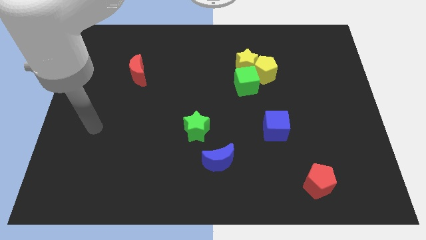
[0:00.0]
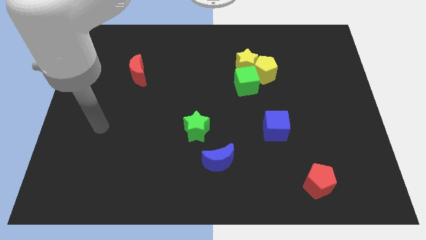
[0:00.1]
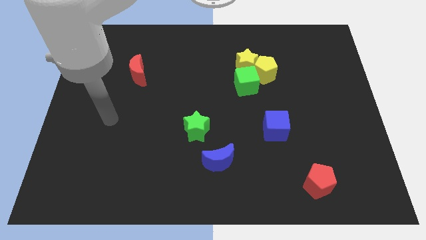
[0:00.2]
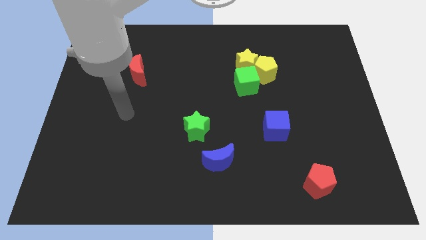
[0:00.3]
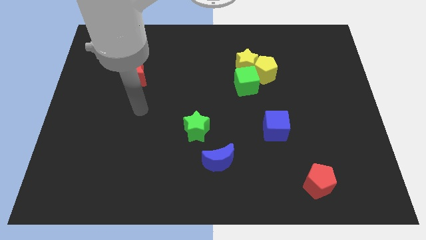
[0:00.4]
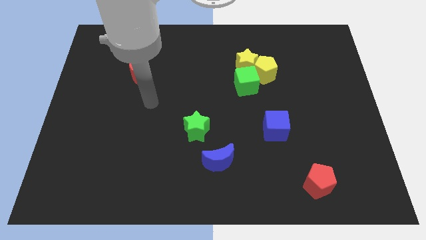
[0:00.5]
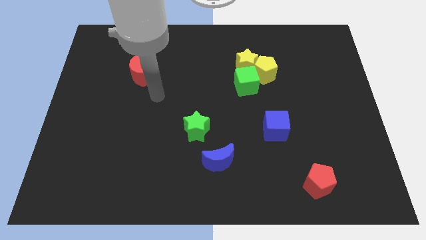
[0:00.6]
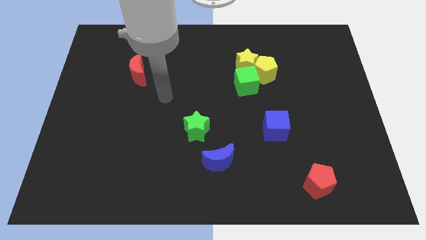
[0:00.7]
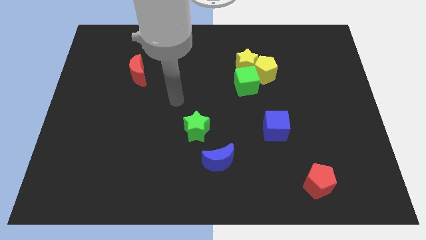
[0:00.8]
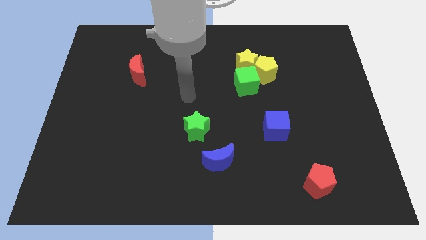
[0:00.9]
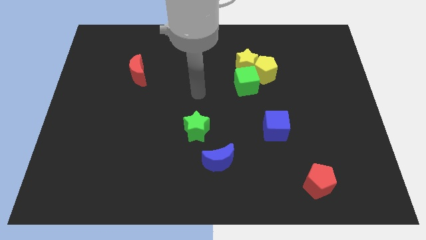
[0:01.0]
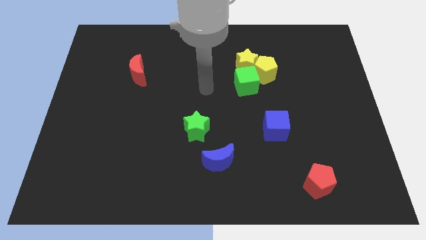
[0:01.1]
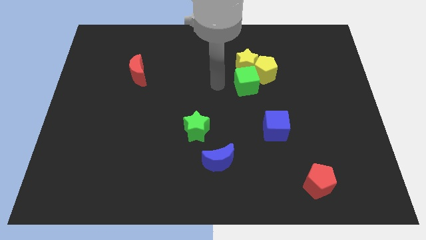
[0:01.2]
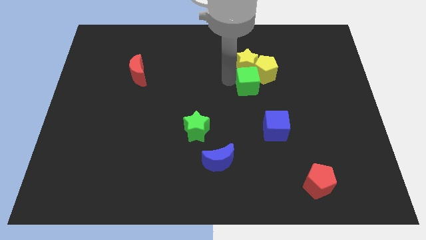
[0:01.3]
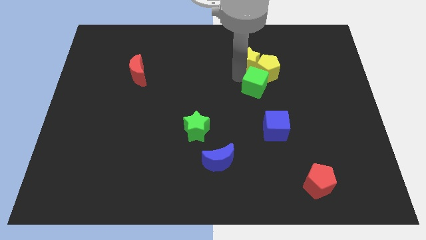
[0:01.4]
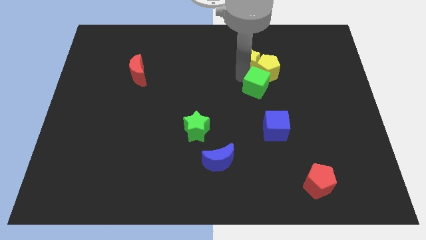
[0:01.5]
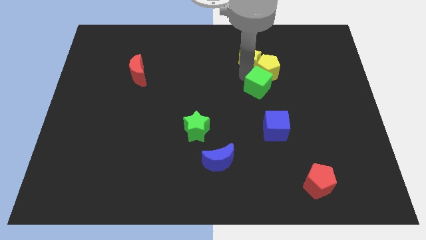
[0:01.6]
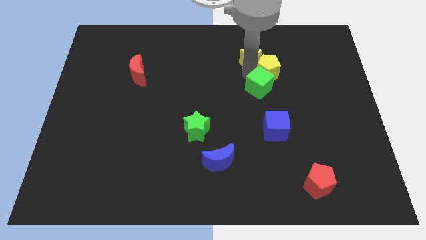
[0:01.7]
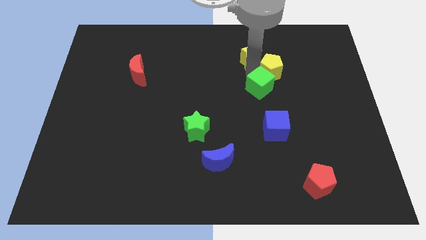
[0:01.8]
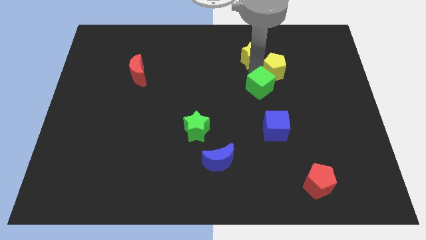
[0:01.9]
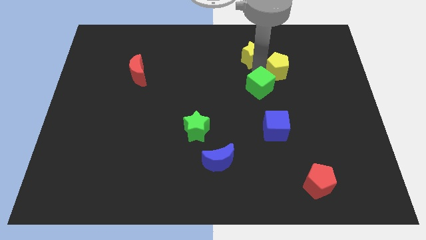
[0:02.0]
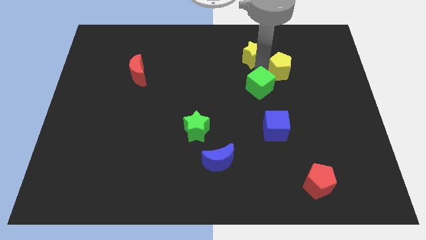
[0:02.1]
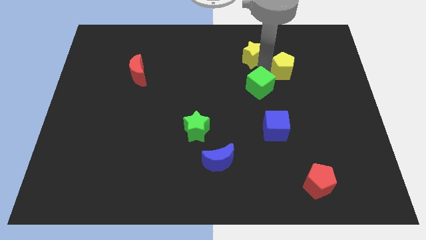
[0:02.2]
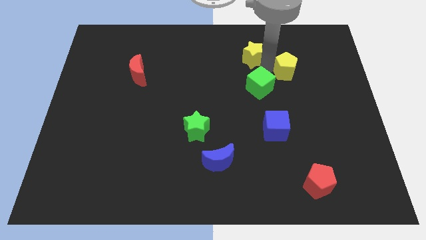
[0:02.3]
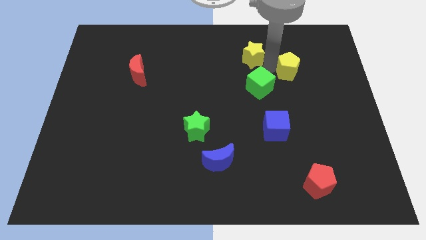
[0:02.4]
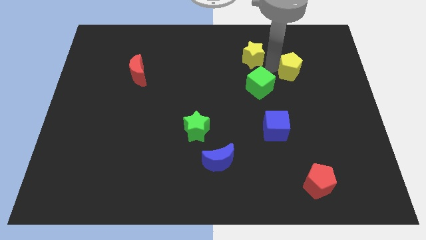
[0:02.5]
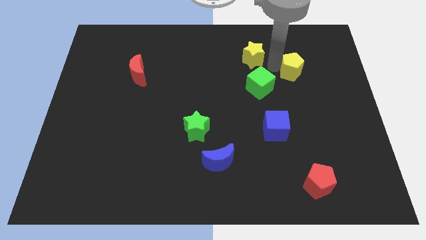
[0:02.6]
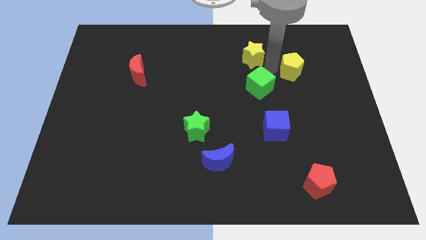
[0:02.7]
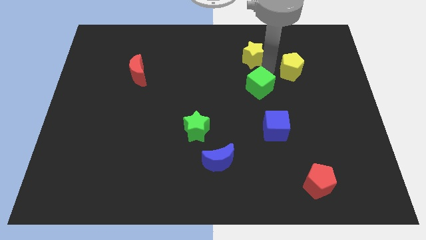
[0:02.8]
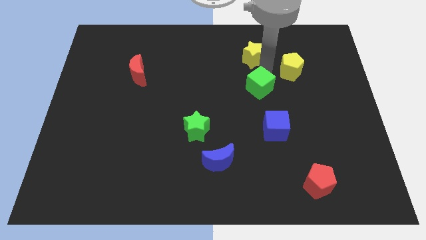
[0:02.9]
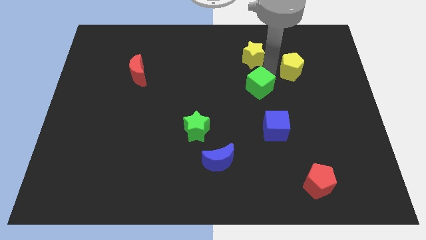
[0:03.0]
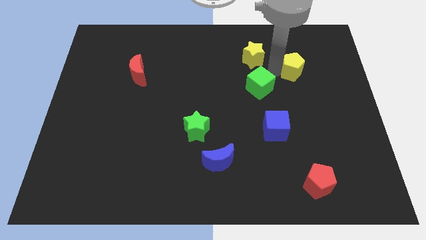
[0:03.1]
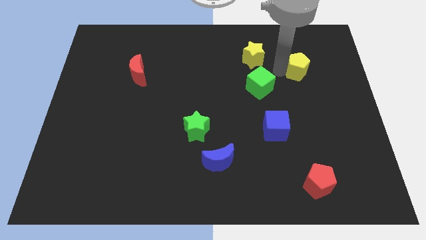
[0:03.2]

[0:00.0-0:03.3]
move the yellow pentagon away from the yellow star and green cube

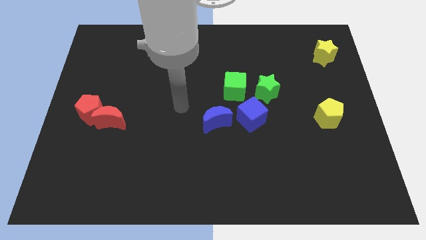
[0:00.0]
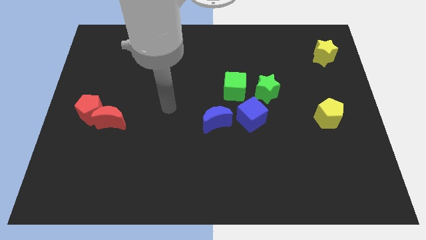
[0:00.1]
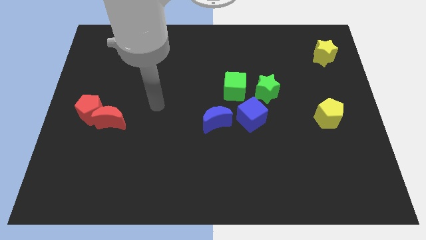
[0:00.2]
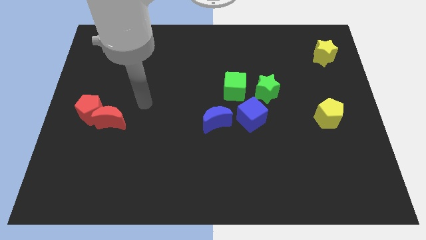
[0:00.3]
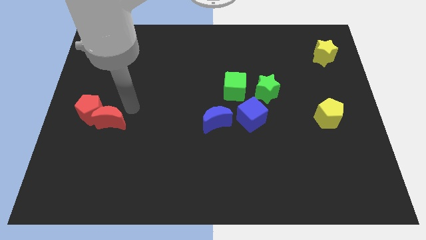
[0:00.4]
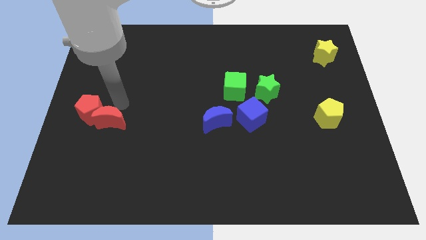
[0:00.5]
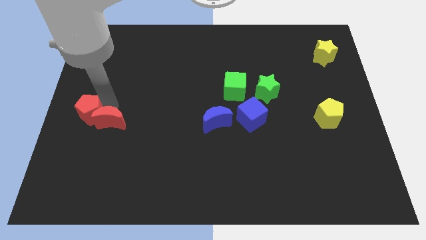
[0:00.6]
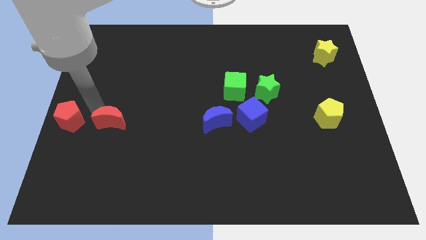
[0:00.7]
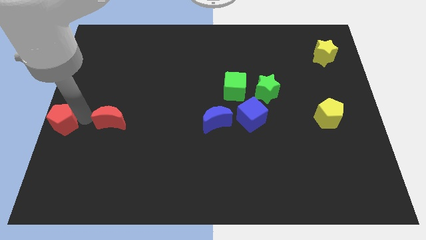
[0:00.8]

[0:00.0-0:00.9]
pull the red moon apart from the red pentagon

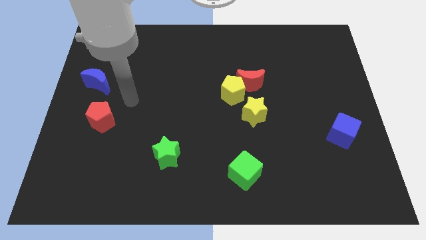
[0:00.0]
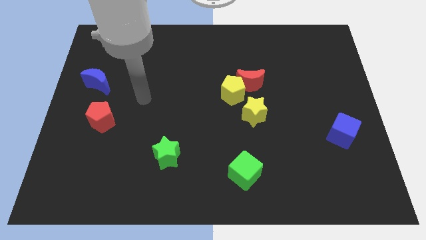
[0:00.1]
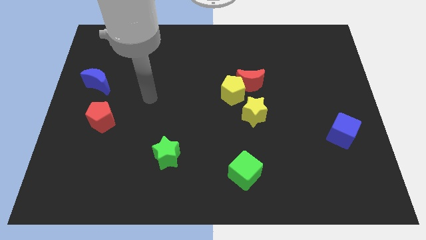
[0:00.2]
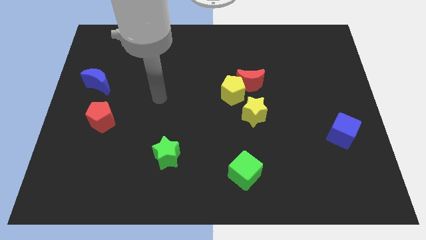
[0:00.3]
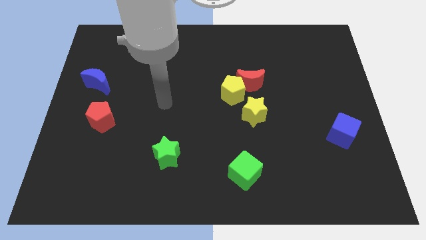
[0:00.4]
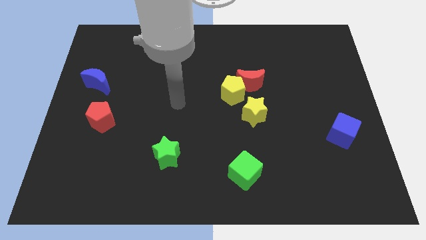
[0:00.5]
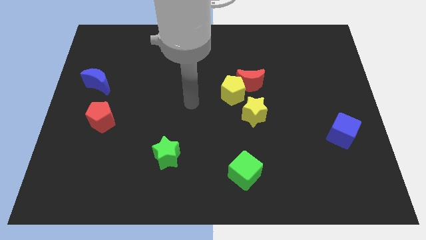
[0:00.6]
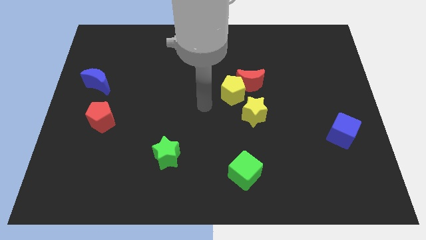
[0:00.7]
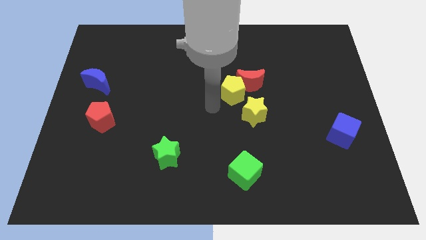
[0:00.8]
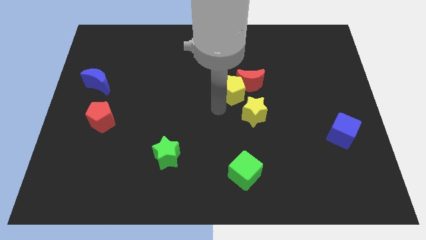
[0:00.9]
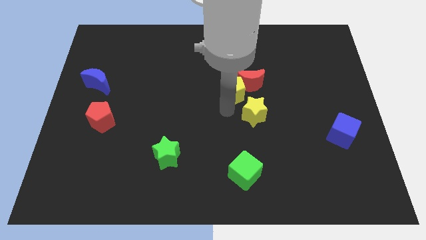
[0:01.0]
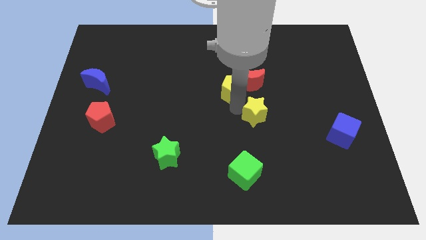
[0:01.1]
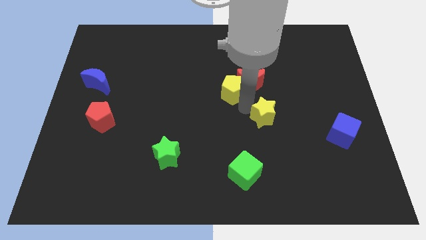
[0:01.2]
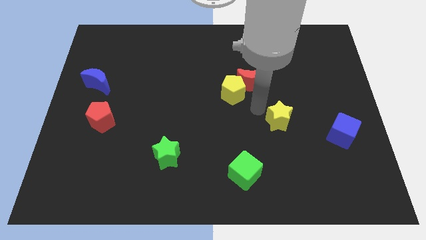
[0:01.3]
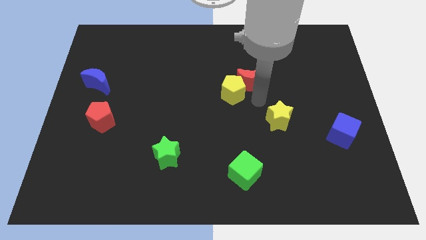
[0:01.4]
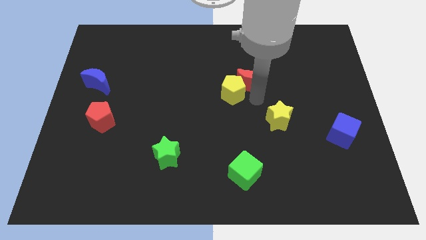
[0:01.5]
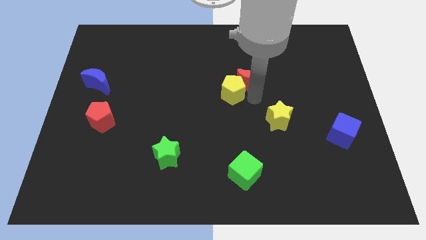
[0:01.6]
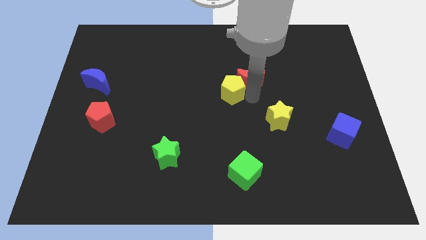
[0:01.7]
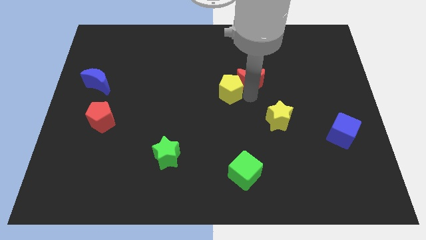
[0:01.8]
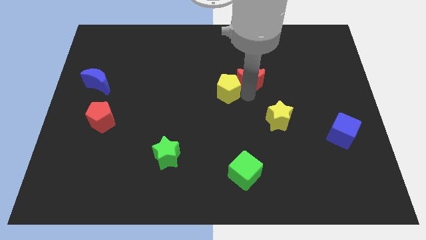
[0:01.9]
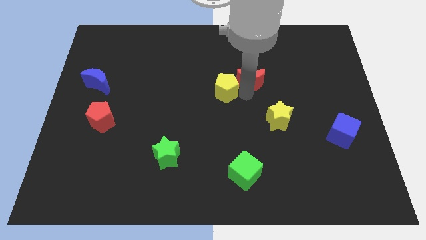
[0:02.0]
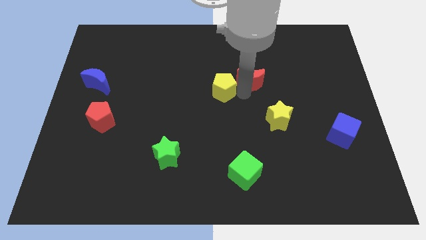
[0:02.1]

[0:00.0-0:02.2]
pull the yellow pentagon apart from the red moon and yellow star

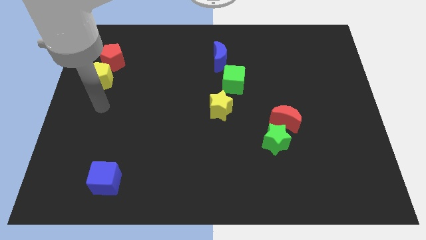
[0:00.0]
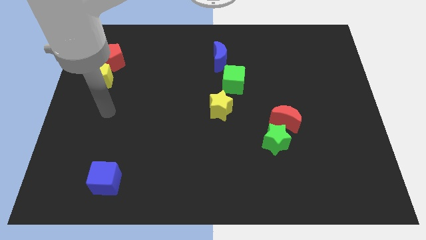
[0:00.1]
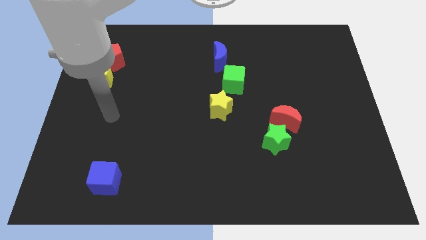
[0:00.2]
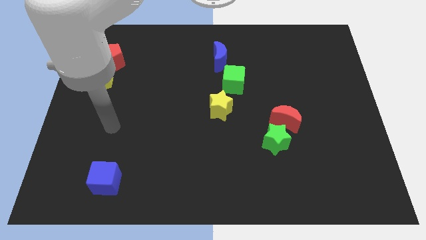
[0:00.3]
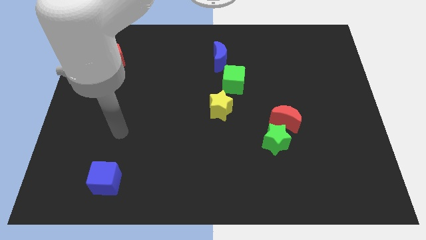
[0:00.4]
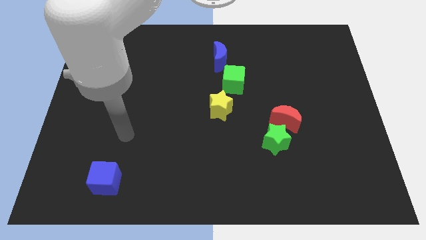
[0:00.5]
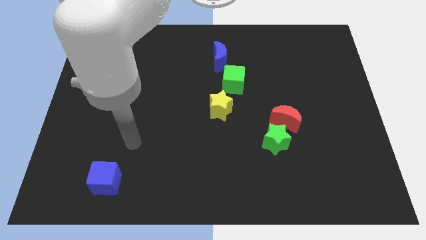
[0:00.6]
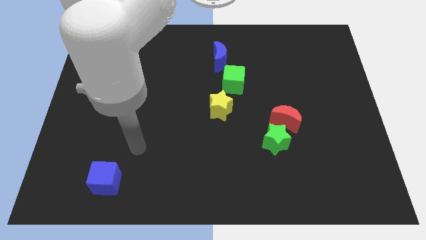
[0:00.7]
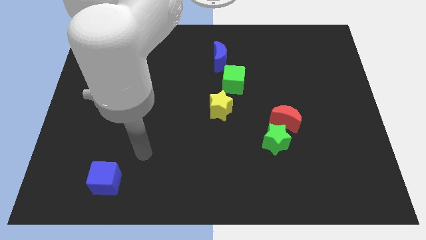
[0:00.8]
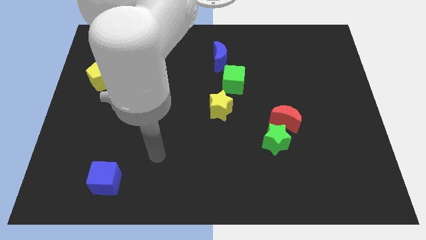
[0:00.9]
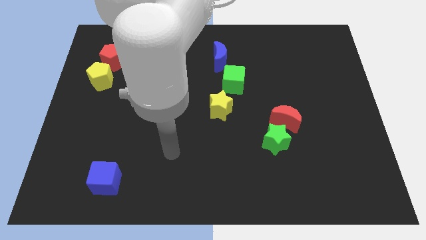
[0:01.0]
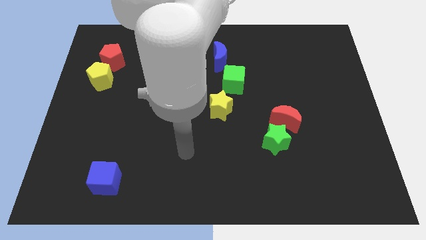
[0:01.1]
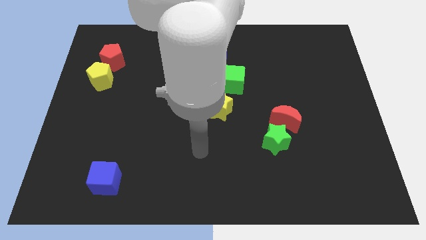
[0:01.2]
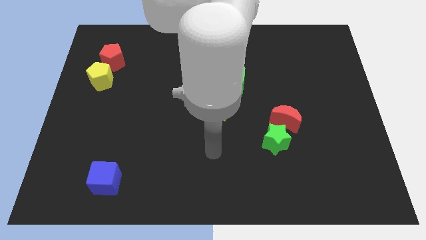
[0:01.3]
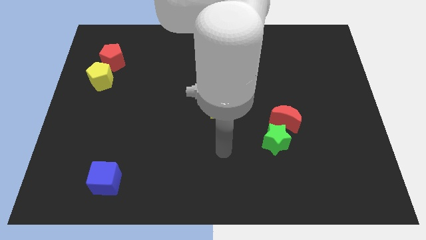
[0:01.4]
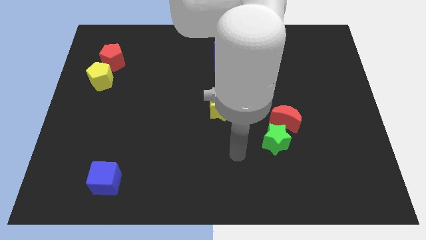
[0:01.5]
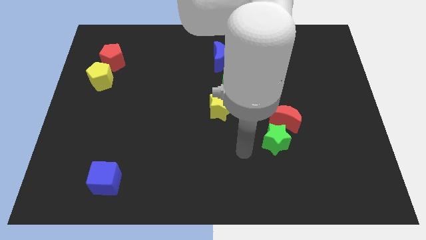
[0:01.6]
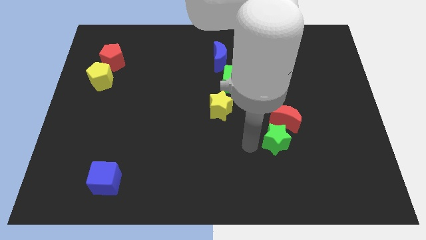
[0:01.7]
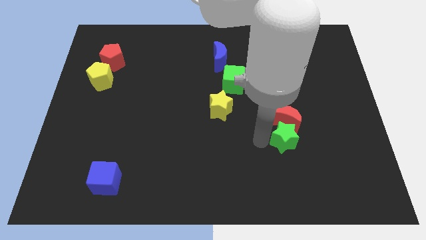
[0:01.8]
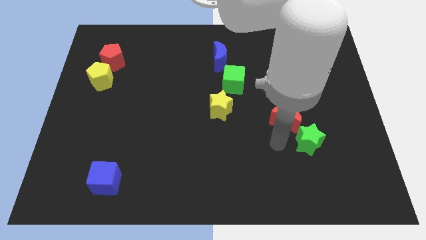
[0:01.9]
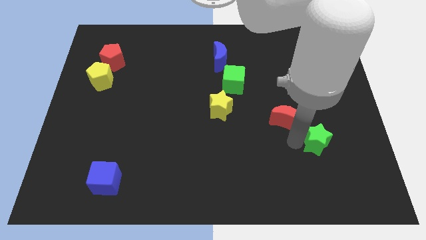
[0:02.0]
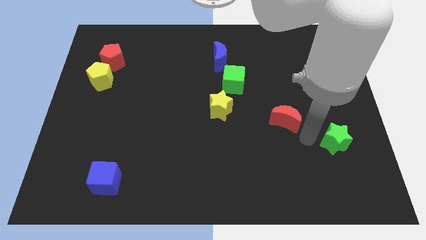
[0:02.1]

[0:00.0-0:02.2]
move the red moon away from the green star

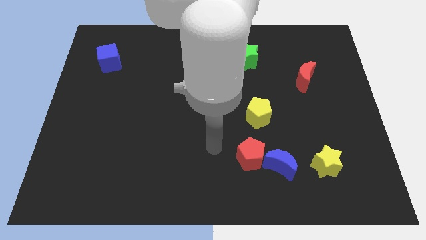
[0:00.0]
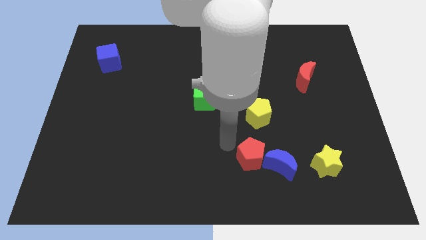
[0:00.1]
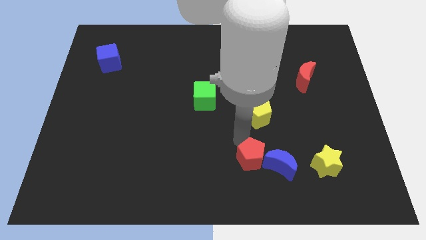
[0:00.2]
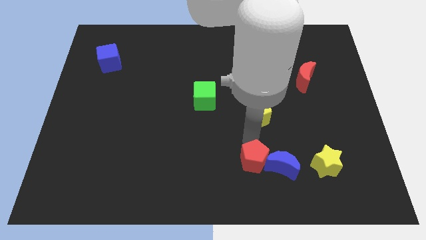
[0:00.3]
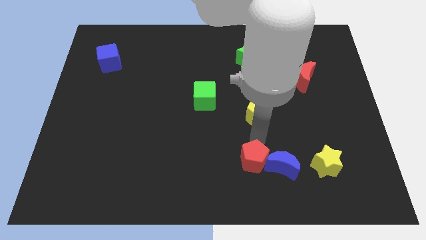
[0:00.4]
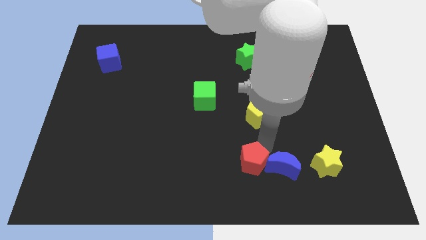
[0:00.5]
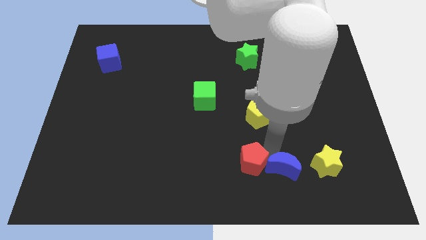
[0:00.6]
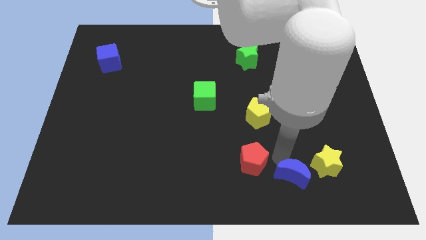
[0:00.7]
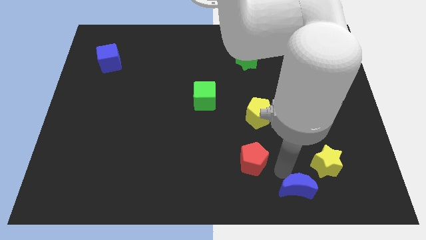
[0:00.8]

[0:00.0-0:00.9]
separate the red pentagon from the blue moon
